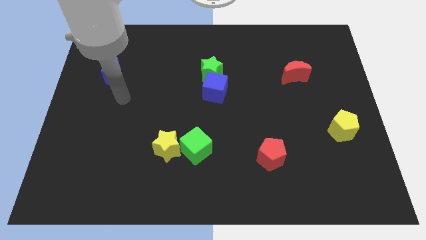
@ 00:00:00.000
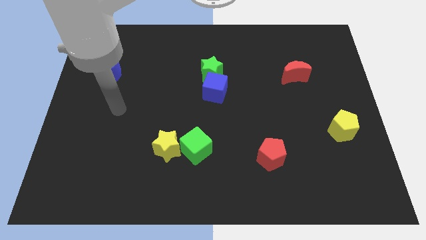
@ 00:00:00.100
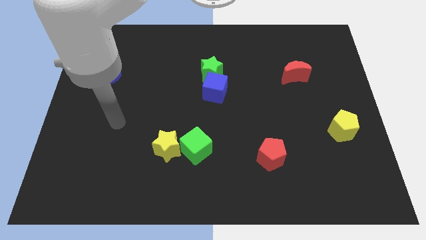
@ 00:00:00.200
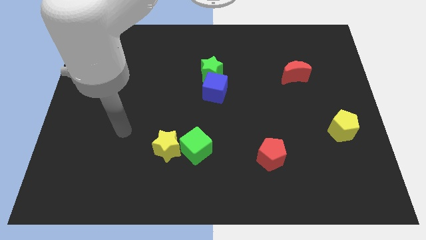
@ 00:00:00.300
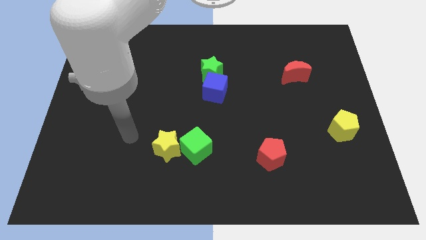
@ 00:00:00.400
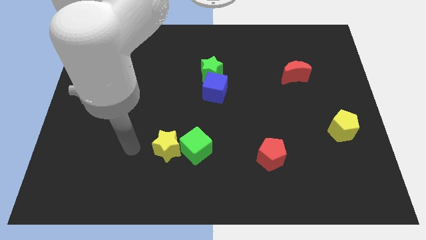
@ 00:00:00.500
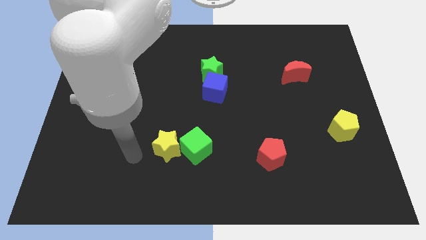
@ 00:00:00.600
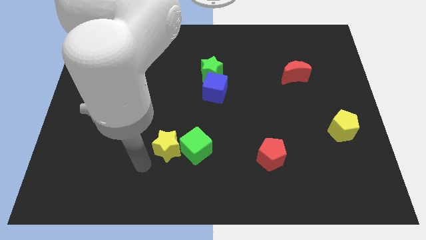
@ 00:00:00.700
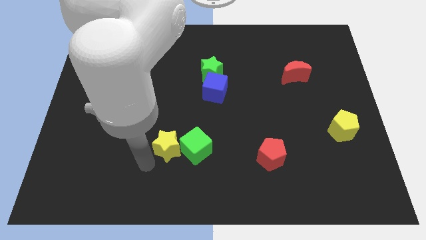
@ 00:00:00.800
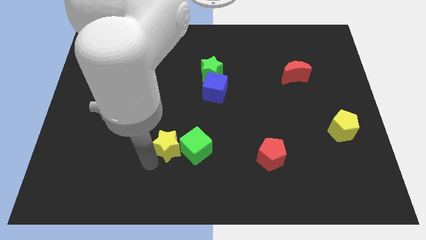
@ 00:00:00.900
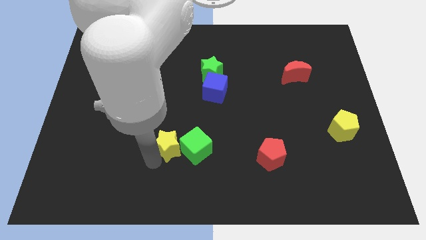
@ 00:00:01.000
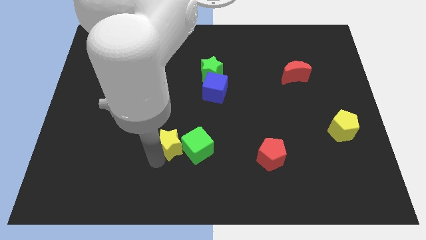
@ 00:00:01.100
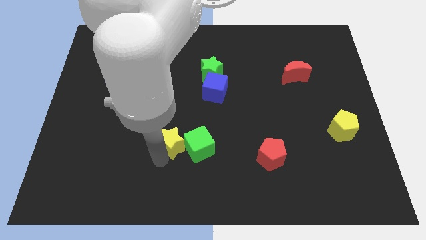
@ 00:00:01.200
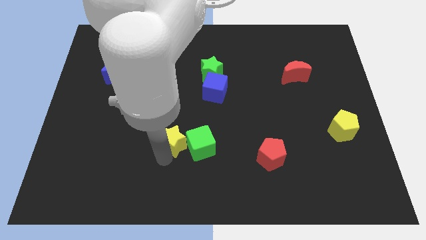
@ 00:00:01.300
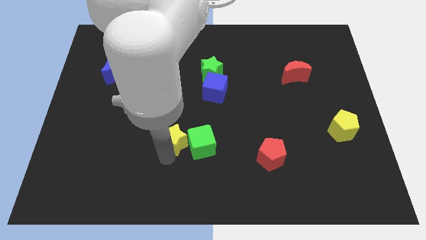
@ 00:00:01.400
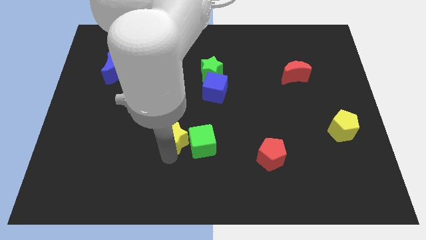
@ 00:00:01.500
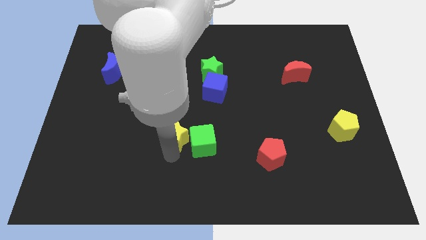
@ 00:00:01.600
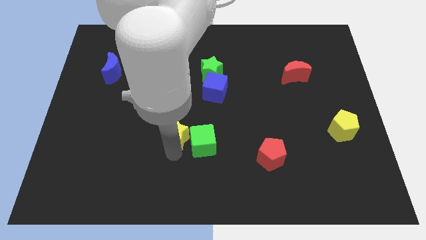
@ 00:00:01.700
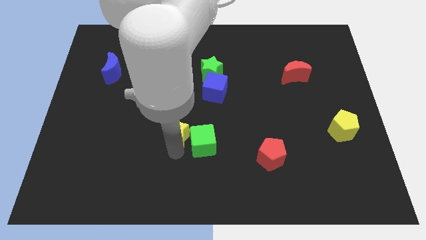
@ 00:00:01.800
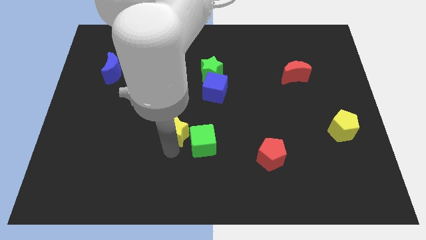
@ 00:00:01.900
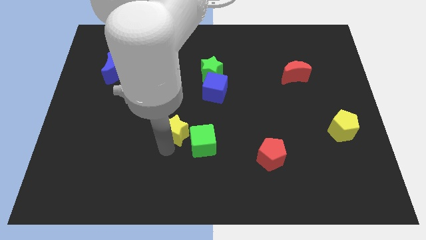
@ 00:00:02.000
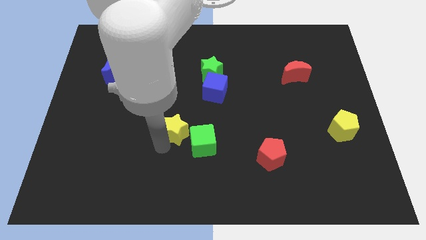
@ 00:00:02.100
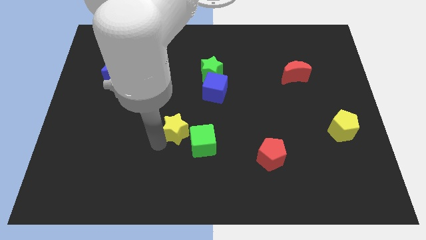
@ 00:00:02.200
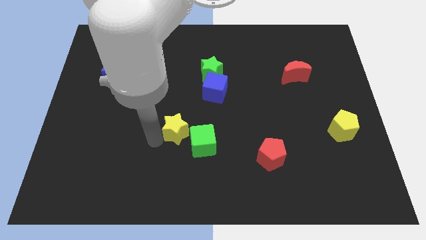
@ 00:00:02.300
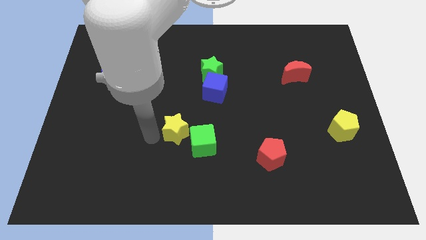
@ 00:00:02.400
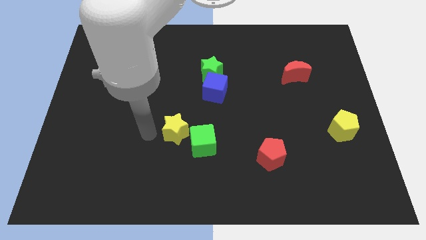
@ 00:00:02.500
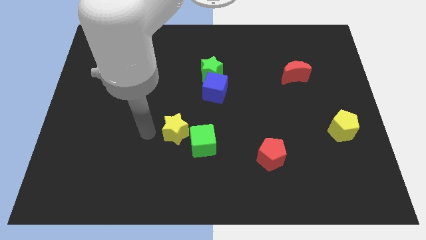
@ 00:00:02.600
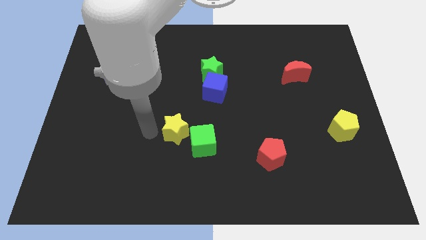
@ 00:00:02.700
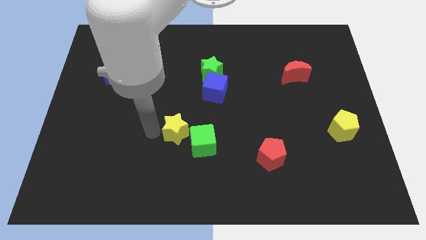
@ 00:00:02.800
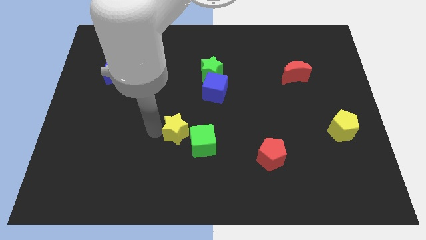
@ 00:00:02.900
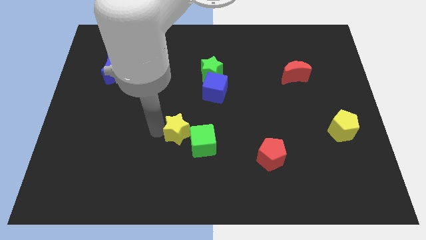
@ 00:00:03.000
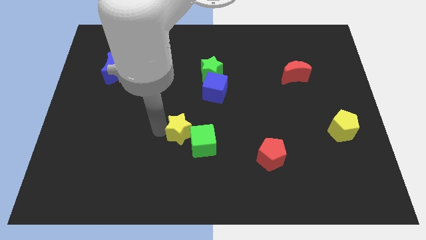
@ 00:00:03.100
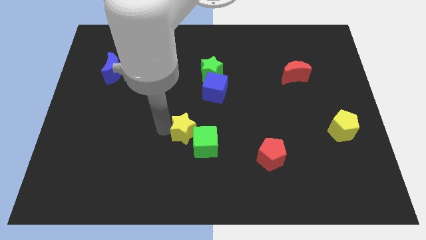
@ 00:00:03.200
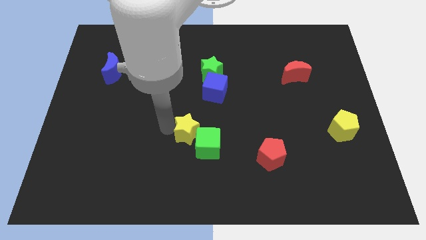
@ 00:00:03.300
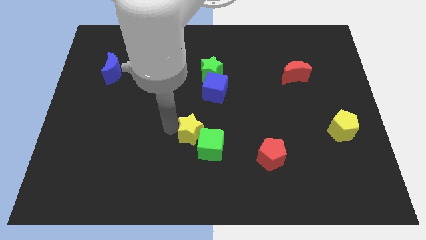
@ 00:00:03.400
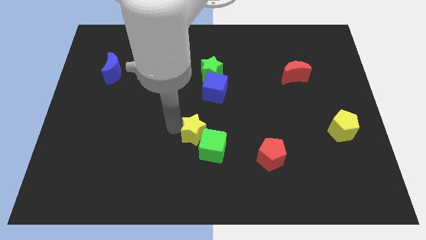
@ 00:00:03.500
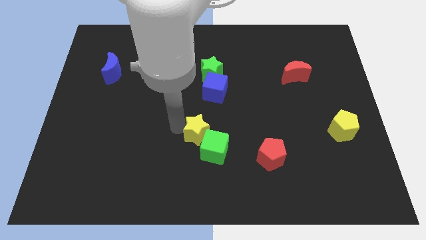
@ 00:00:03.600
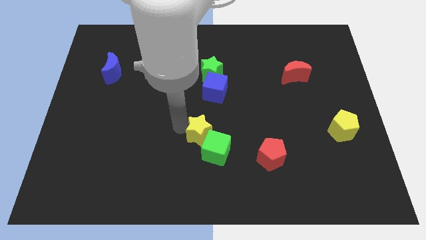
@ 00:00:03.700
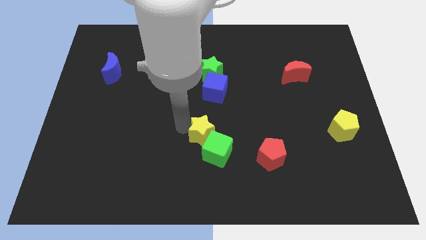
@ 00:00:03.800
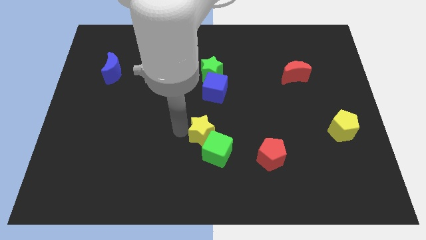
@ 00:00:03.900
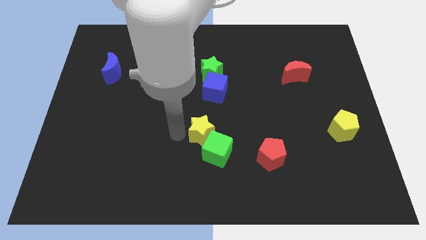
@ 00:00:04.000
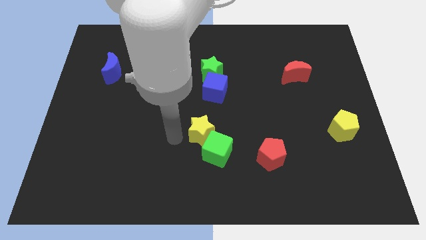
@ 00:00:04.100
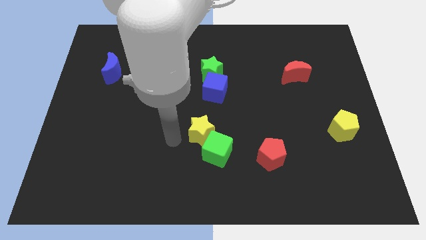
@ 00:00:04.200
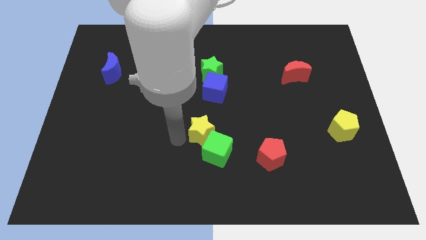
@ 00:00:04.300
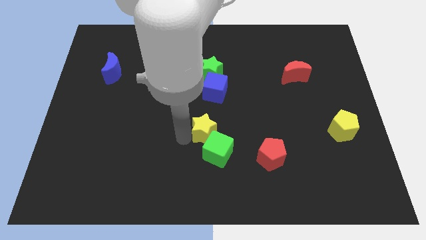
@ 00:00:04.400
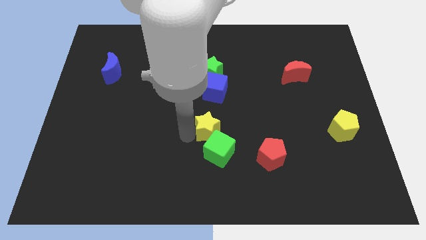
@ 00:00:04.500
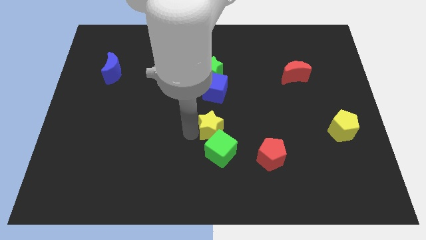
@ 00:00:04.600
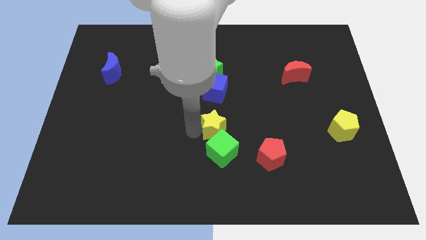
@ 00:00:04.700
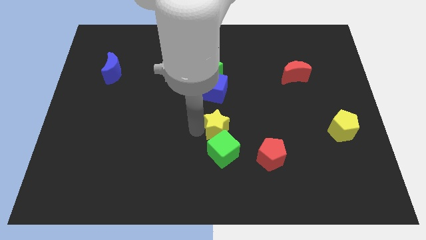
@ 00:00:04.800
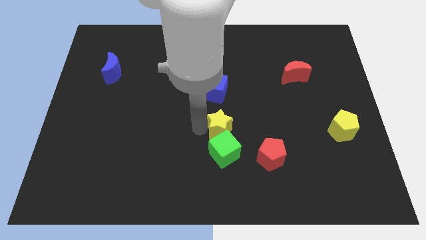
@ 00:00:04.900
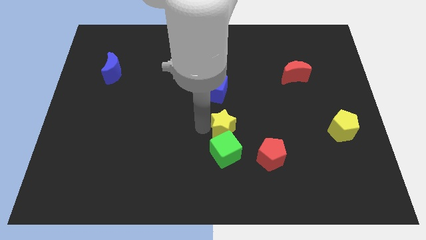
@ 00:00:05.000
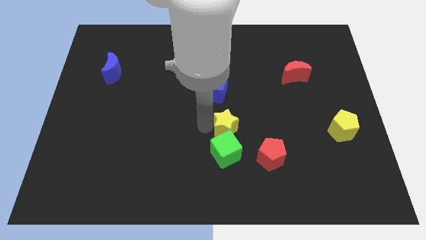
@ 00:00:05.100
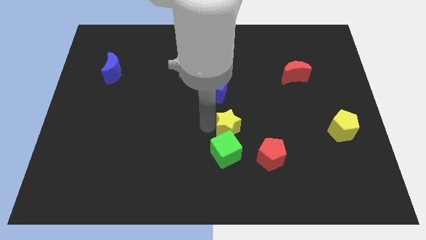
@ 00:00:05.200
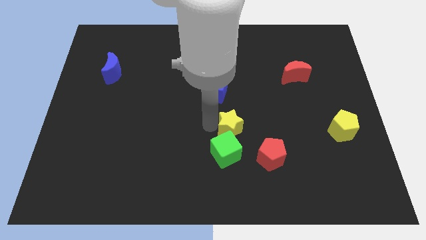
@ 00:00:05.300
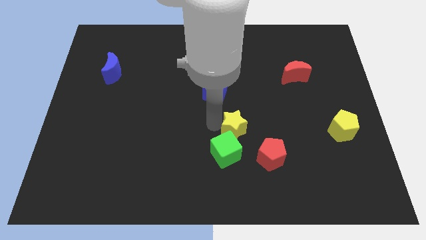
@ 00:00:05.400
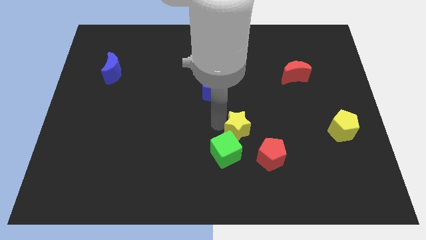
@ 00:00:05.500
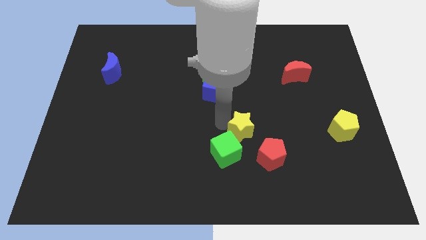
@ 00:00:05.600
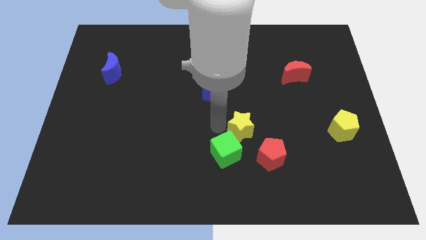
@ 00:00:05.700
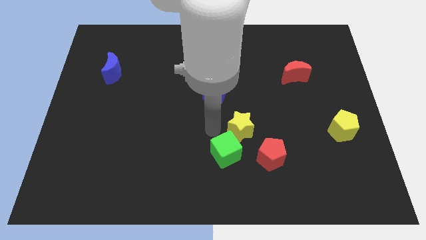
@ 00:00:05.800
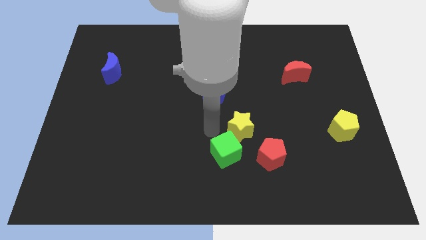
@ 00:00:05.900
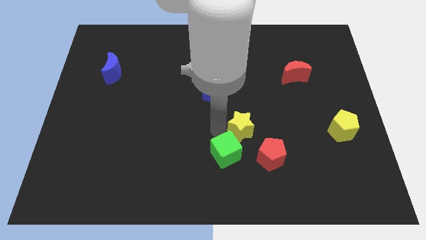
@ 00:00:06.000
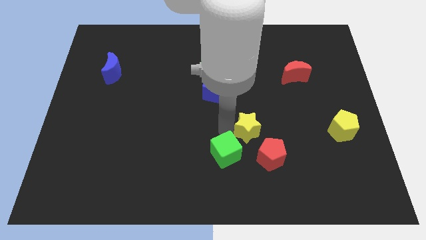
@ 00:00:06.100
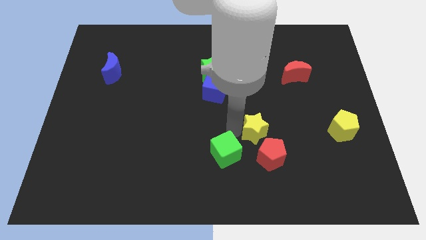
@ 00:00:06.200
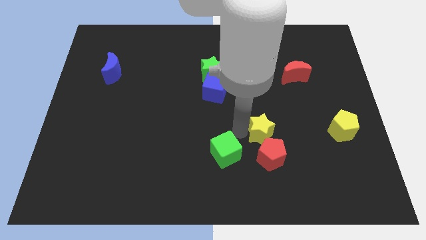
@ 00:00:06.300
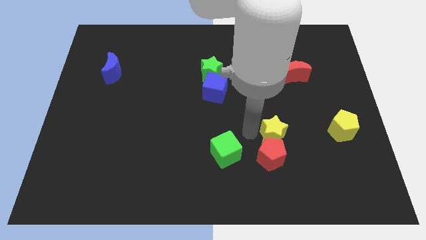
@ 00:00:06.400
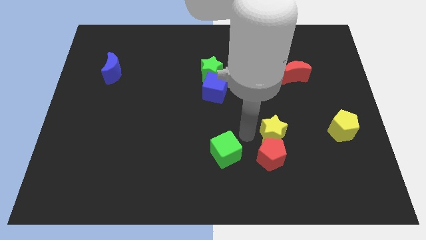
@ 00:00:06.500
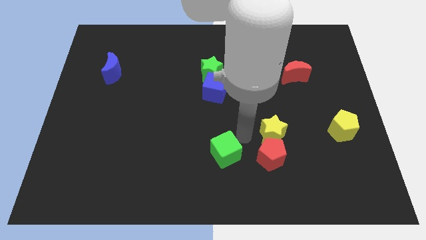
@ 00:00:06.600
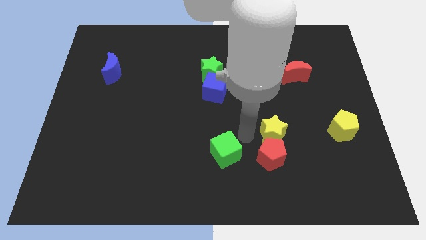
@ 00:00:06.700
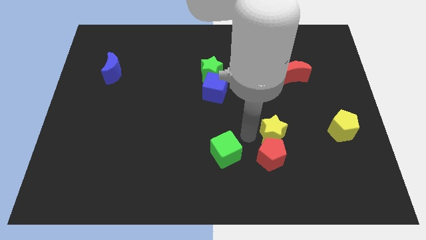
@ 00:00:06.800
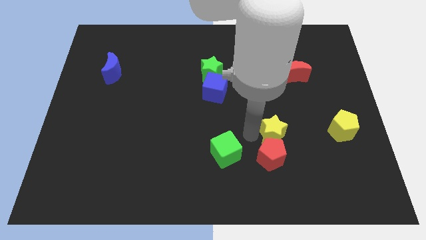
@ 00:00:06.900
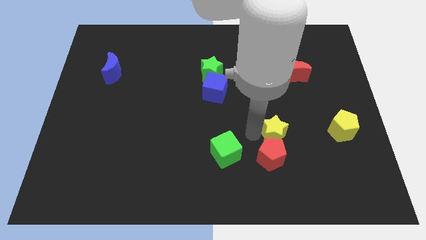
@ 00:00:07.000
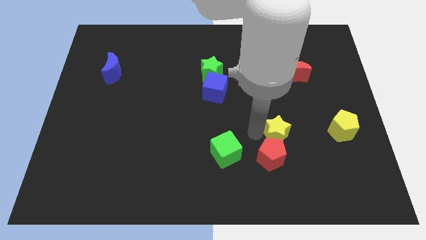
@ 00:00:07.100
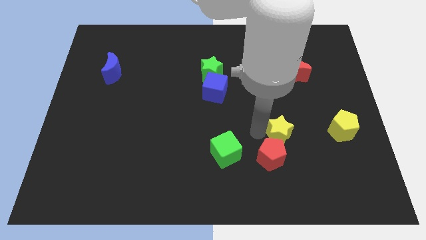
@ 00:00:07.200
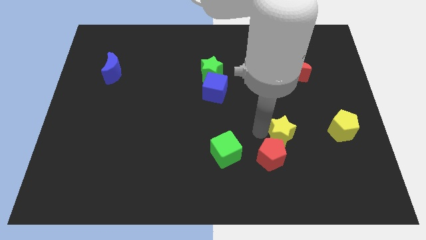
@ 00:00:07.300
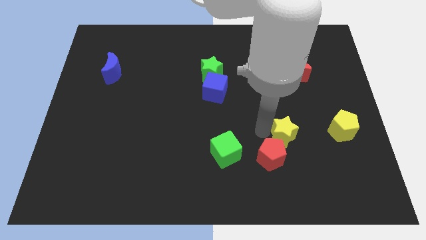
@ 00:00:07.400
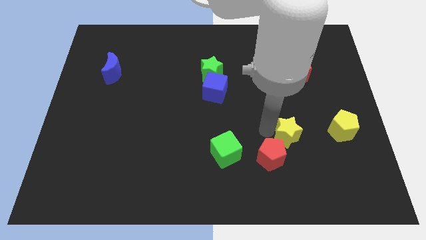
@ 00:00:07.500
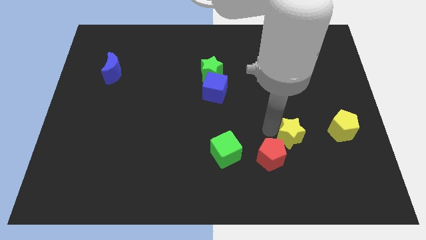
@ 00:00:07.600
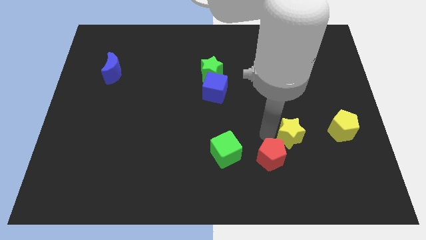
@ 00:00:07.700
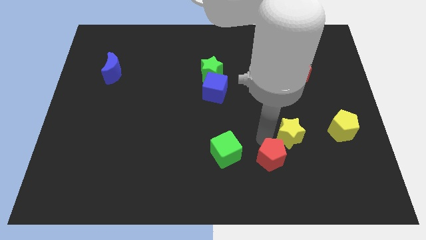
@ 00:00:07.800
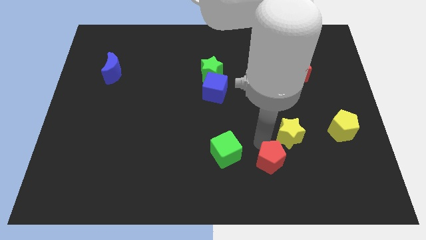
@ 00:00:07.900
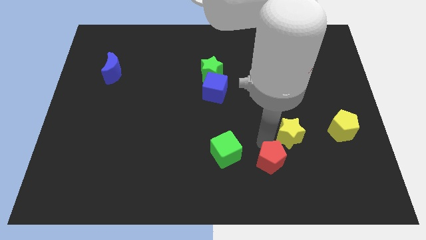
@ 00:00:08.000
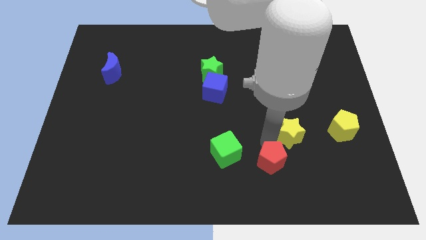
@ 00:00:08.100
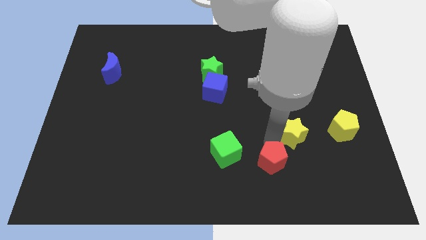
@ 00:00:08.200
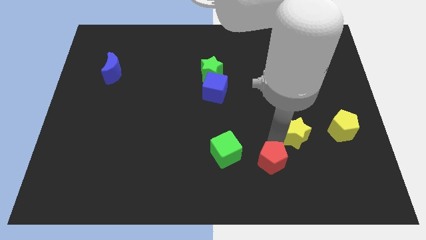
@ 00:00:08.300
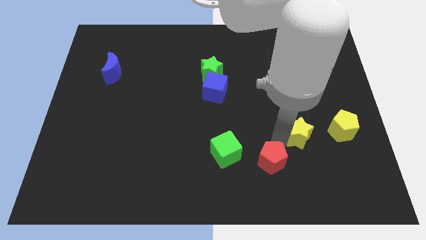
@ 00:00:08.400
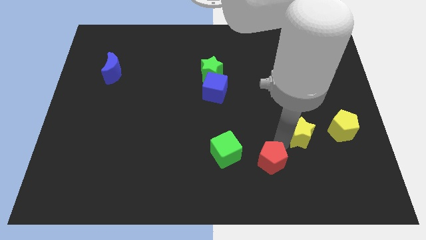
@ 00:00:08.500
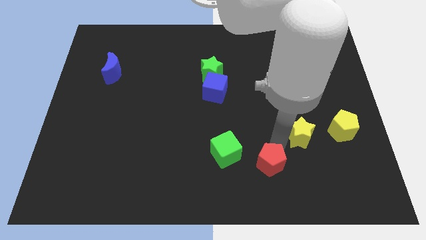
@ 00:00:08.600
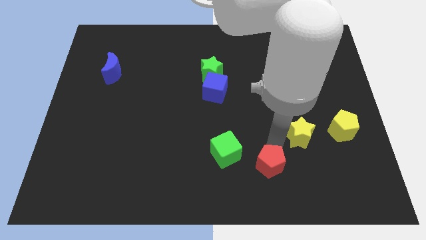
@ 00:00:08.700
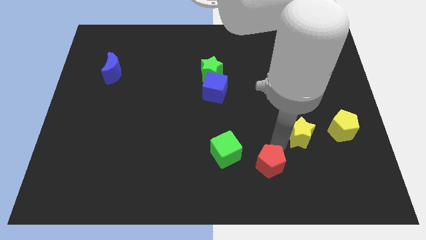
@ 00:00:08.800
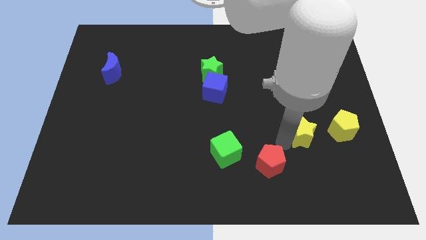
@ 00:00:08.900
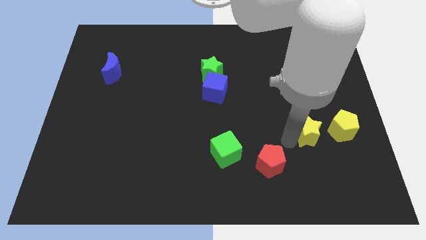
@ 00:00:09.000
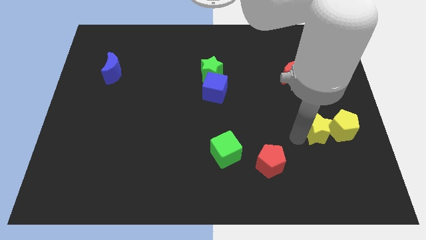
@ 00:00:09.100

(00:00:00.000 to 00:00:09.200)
move the yellow star close to the yellow pentagon
